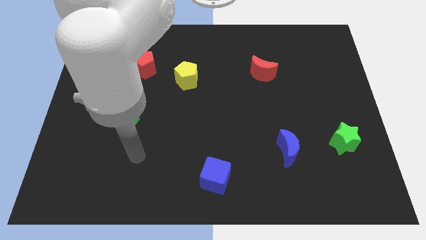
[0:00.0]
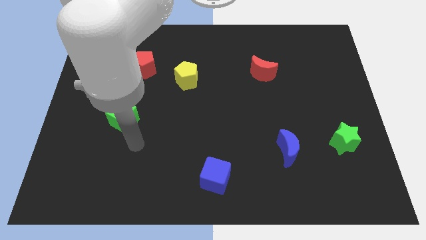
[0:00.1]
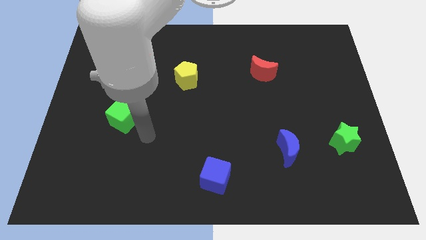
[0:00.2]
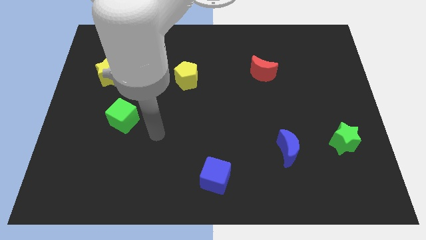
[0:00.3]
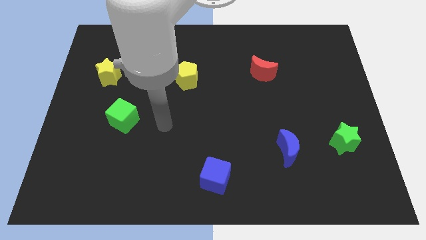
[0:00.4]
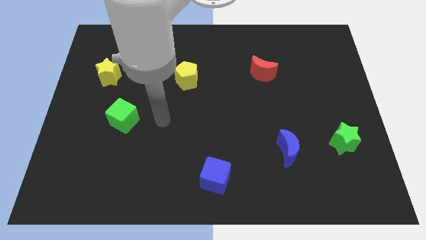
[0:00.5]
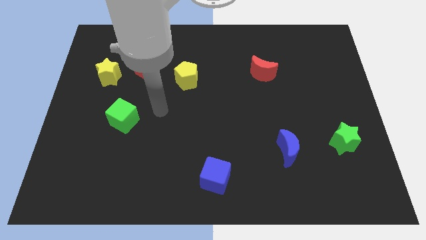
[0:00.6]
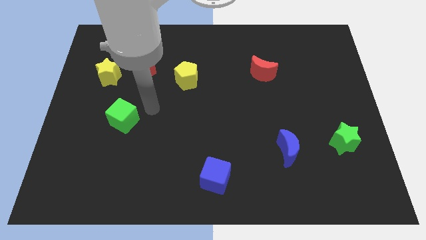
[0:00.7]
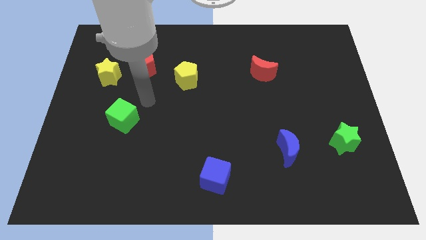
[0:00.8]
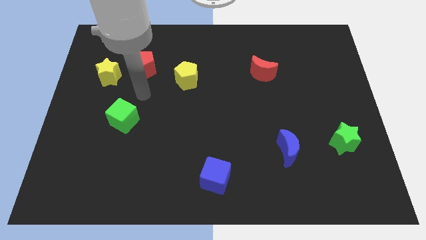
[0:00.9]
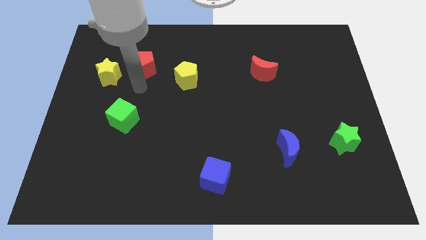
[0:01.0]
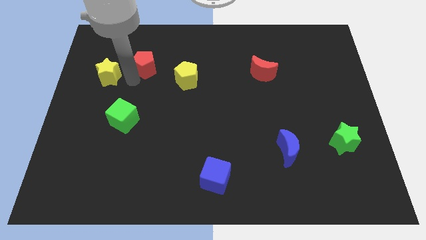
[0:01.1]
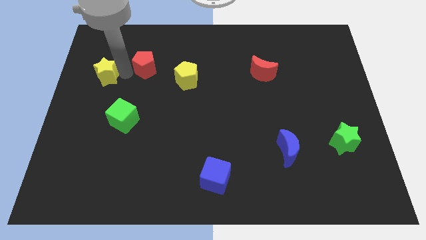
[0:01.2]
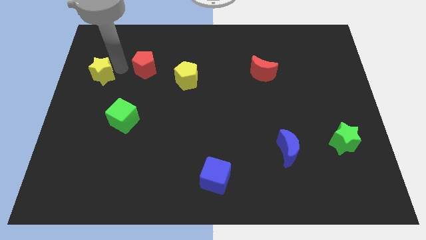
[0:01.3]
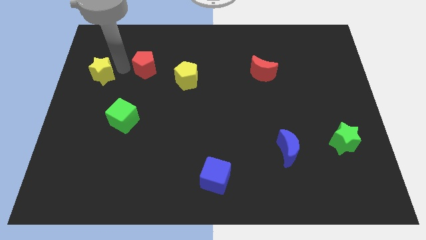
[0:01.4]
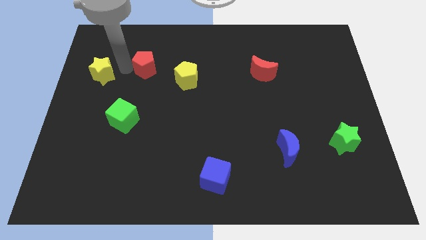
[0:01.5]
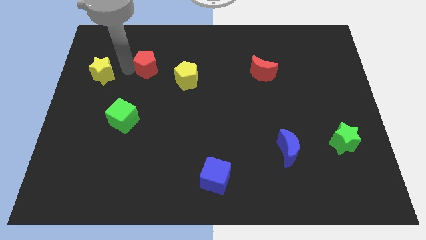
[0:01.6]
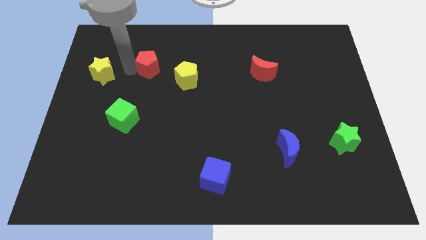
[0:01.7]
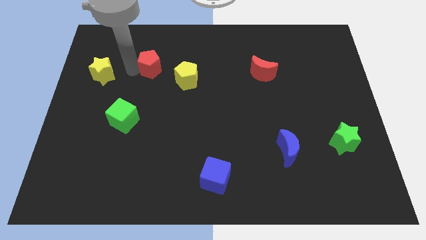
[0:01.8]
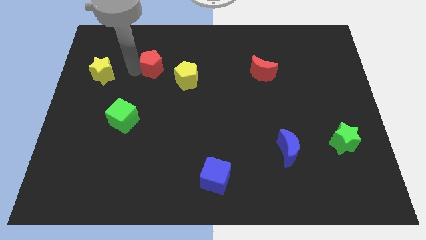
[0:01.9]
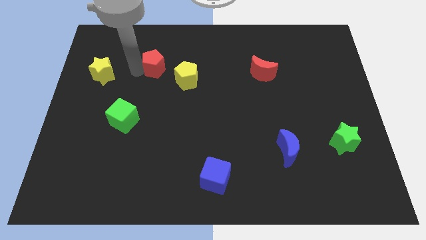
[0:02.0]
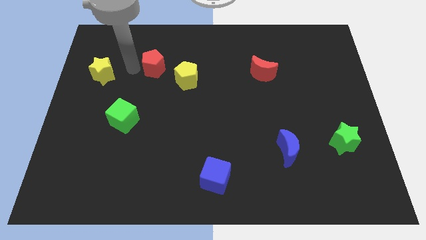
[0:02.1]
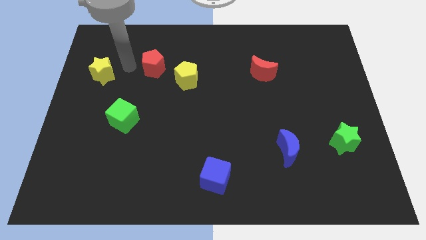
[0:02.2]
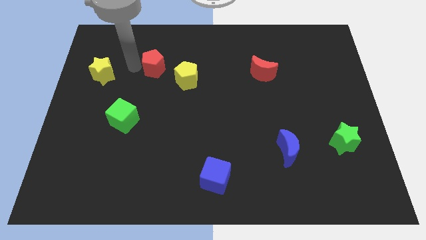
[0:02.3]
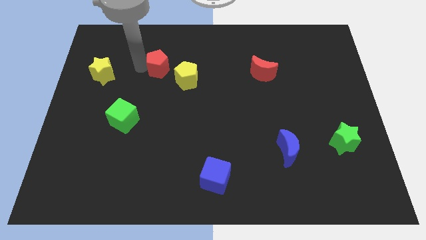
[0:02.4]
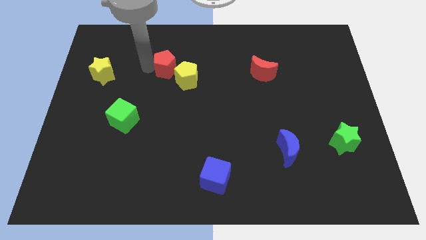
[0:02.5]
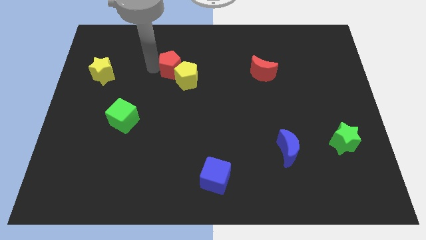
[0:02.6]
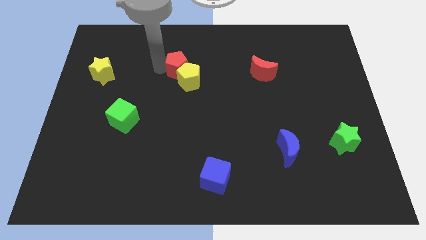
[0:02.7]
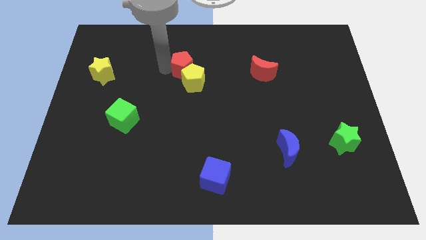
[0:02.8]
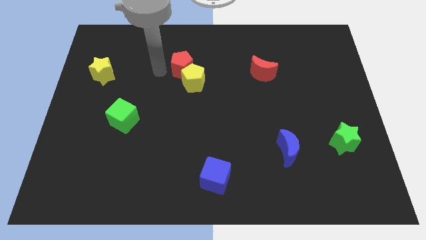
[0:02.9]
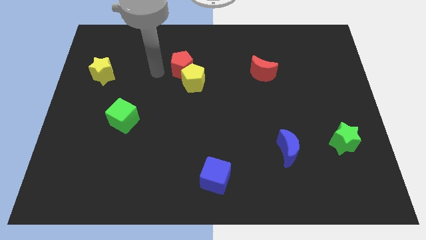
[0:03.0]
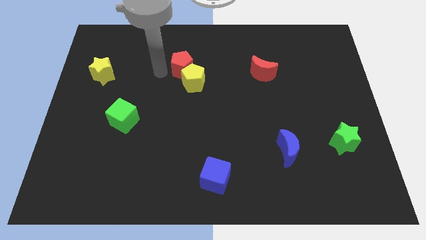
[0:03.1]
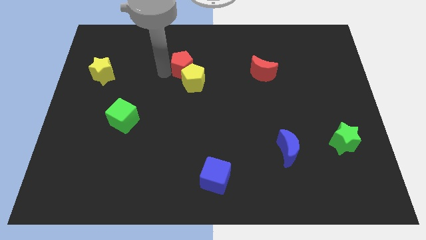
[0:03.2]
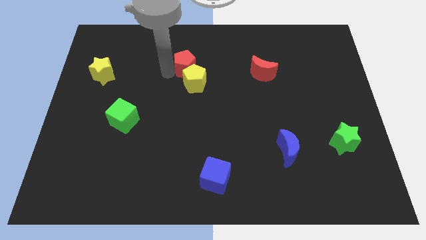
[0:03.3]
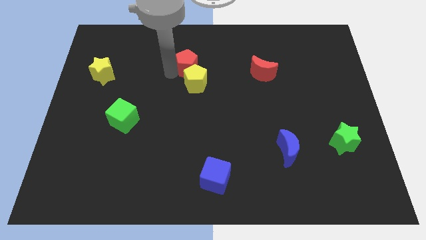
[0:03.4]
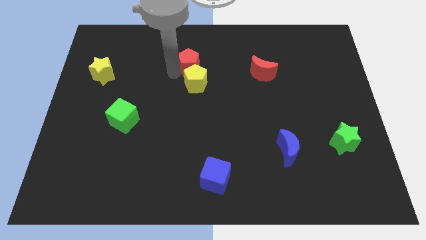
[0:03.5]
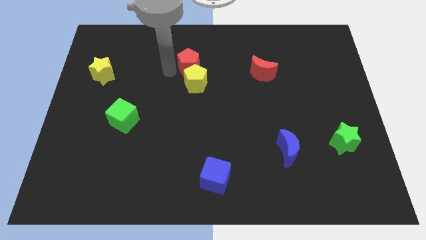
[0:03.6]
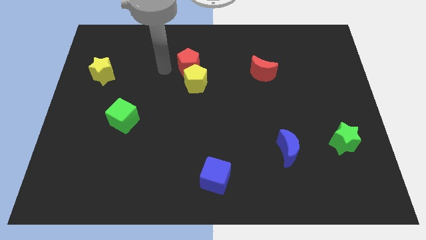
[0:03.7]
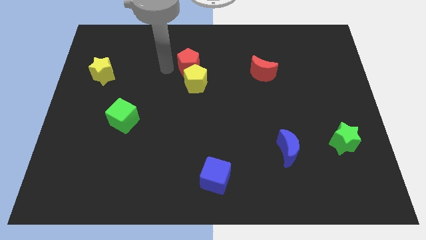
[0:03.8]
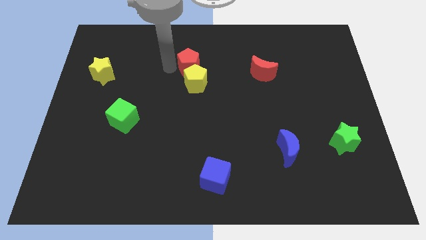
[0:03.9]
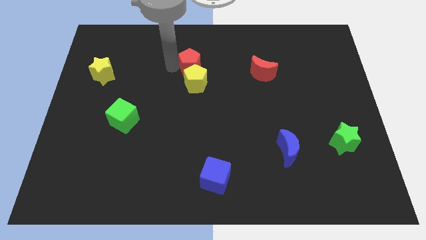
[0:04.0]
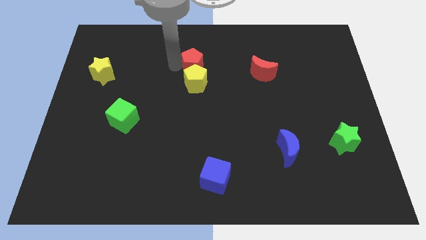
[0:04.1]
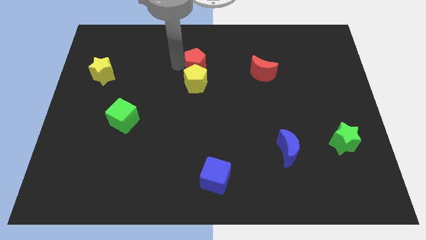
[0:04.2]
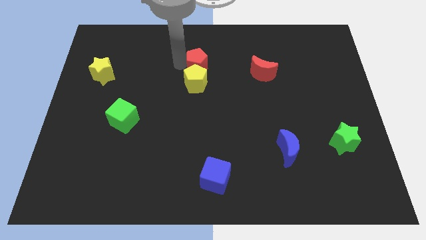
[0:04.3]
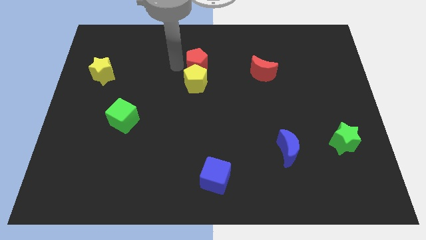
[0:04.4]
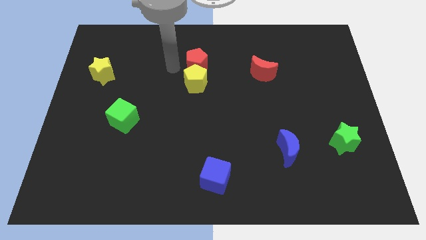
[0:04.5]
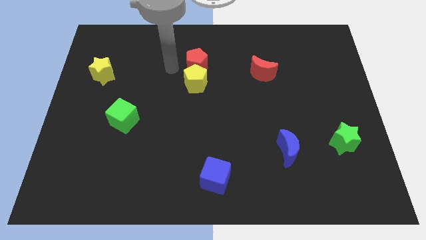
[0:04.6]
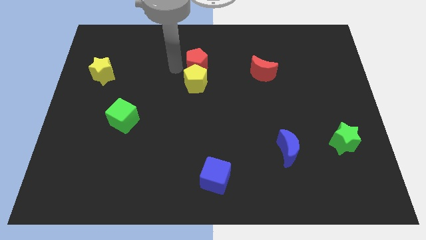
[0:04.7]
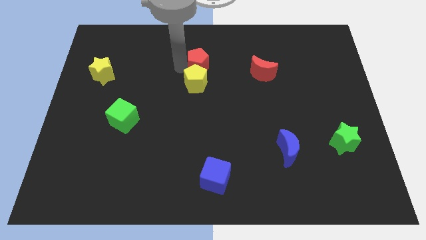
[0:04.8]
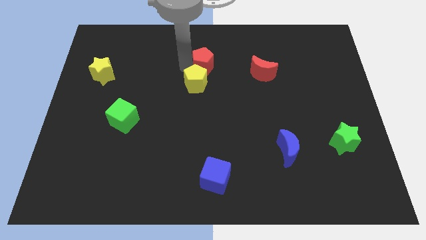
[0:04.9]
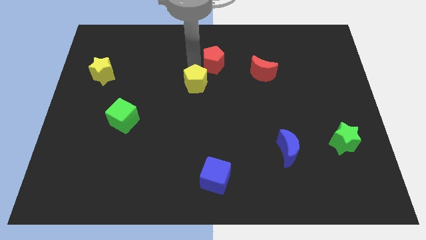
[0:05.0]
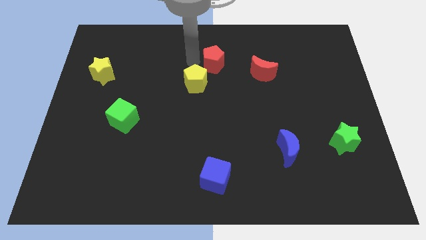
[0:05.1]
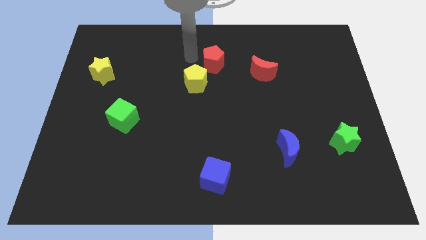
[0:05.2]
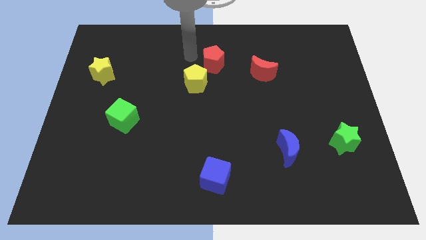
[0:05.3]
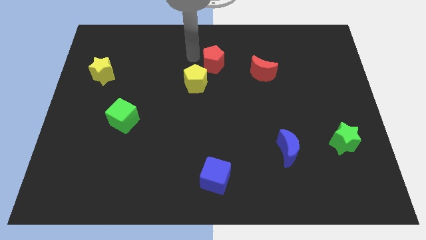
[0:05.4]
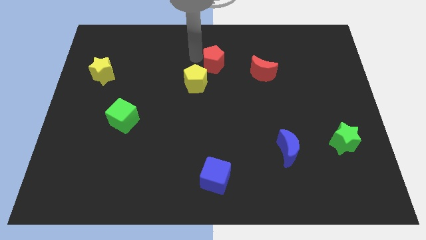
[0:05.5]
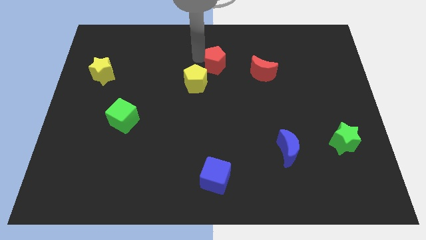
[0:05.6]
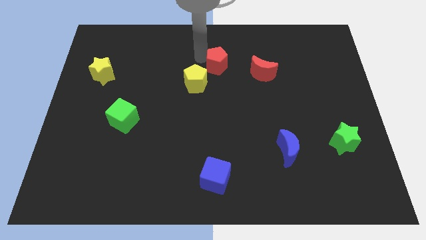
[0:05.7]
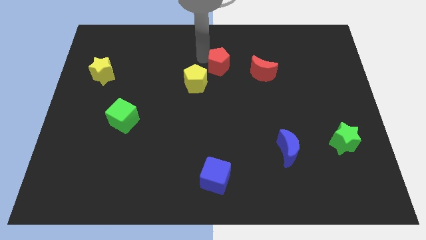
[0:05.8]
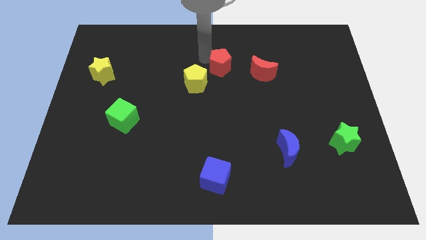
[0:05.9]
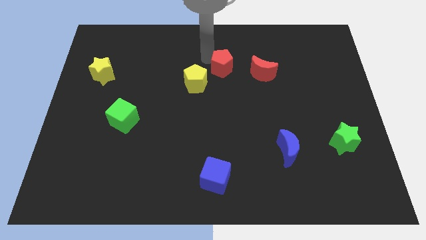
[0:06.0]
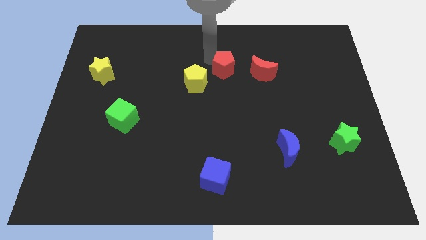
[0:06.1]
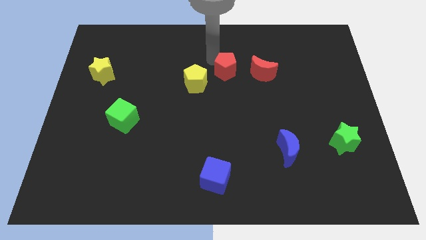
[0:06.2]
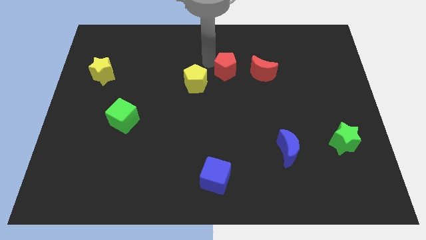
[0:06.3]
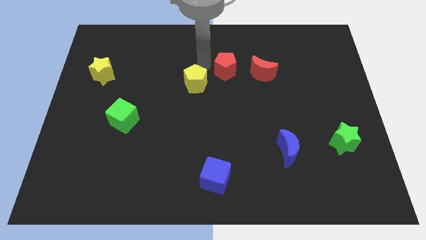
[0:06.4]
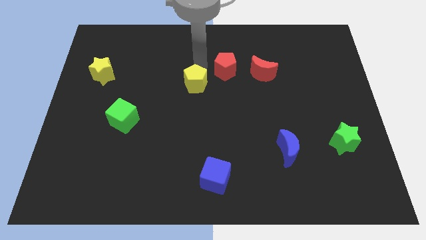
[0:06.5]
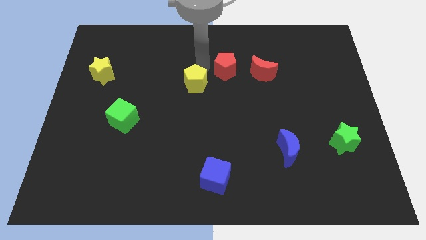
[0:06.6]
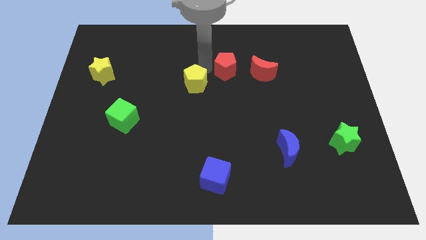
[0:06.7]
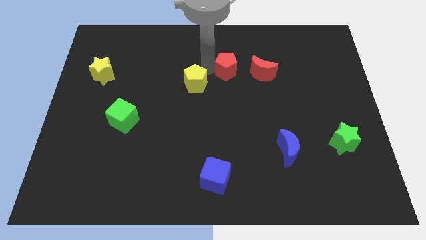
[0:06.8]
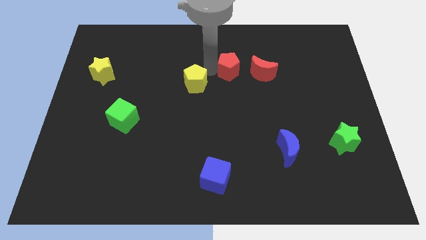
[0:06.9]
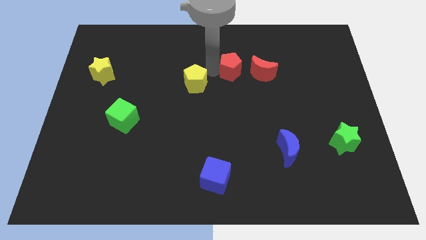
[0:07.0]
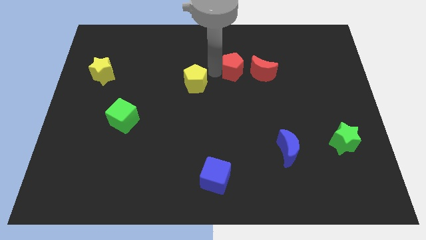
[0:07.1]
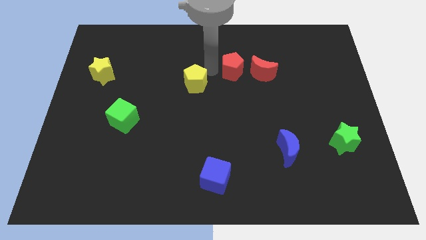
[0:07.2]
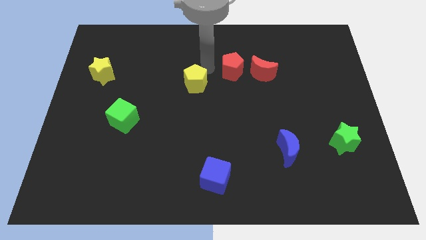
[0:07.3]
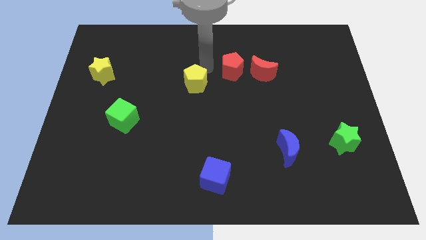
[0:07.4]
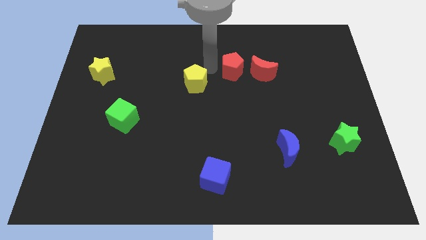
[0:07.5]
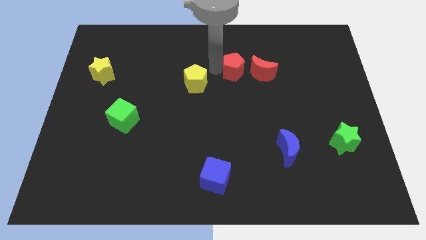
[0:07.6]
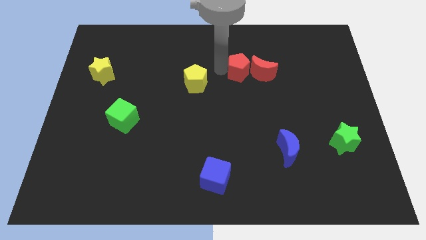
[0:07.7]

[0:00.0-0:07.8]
put the red pentagon to the red moon
